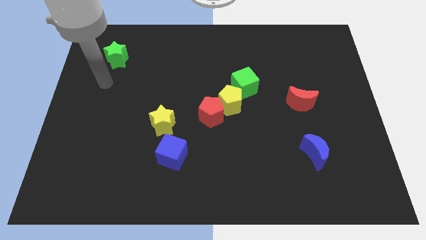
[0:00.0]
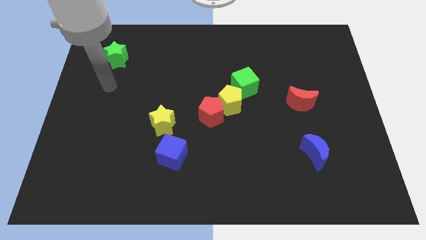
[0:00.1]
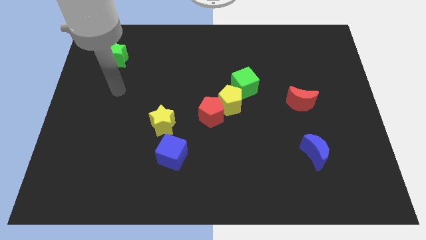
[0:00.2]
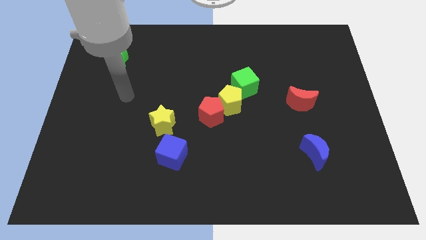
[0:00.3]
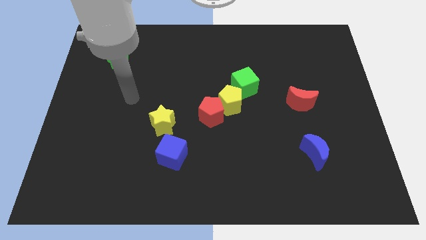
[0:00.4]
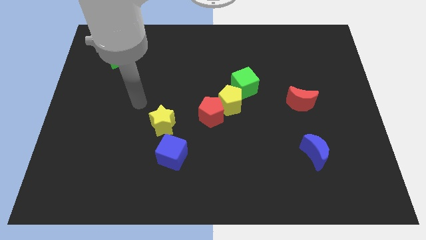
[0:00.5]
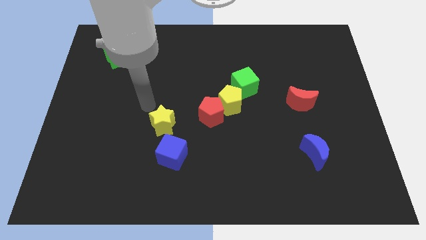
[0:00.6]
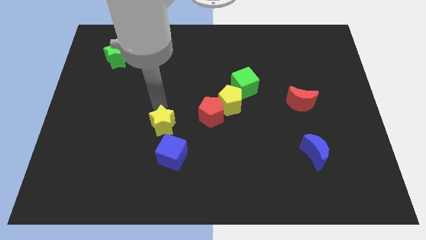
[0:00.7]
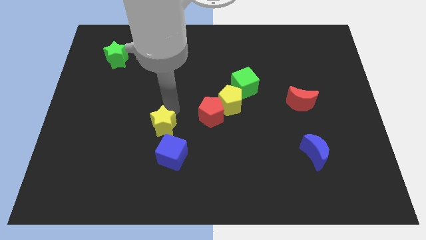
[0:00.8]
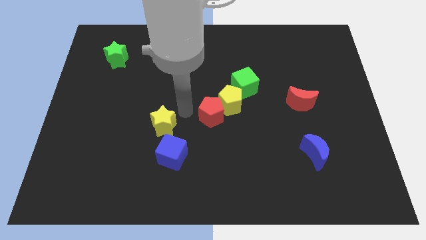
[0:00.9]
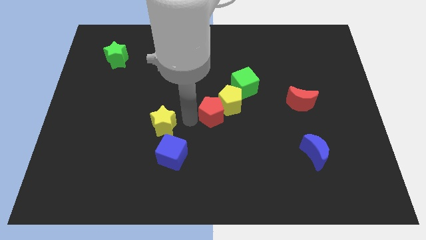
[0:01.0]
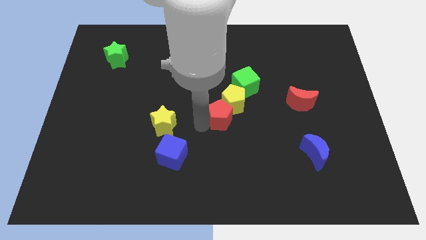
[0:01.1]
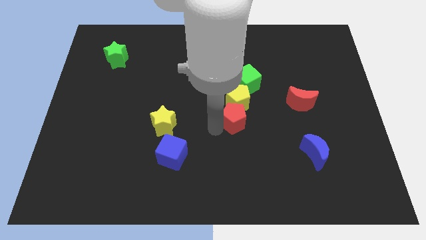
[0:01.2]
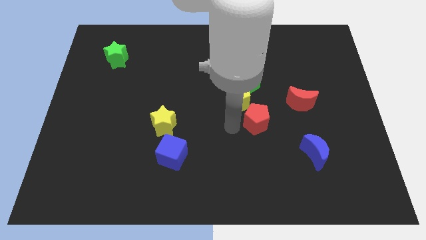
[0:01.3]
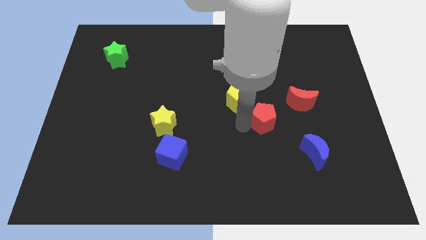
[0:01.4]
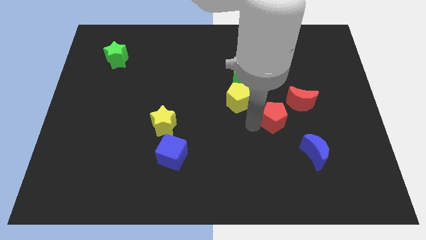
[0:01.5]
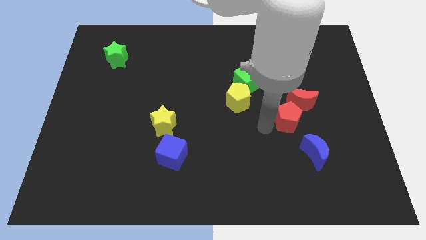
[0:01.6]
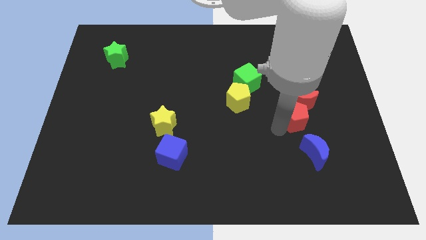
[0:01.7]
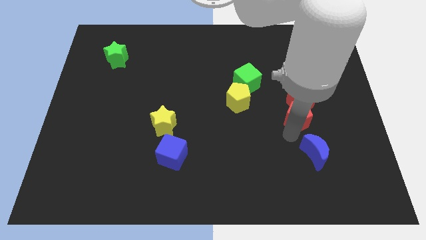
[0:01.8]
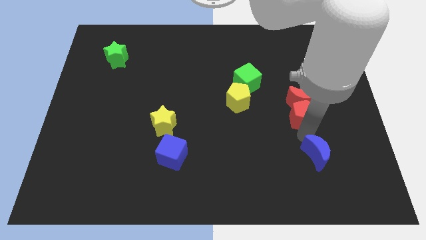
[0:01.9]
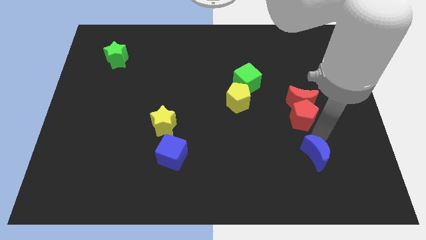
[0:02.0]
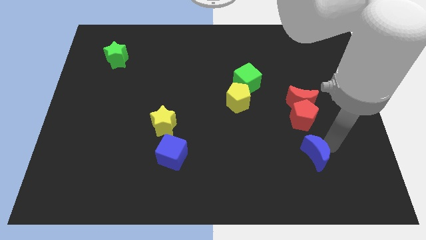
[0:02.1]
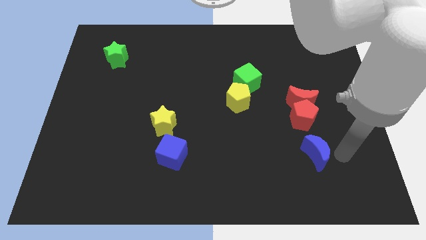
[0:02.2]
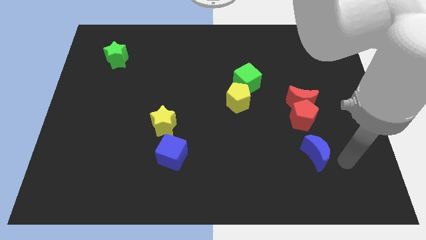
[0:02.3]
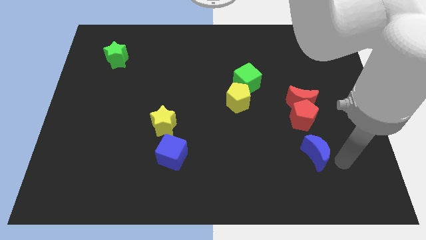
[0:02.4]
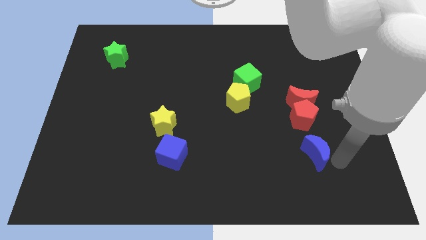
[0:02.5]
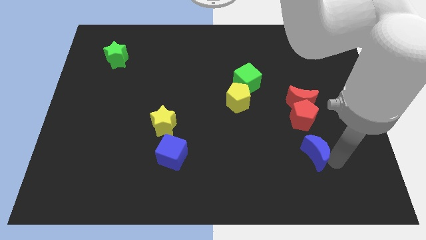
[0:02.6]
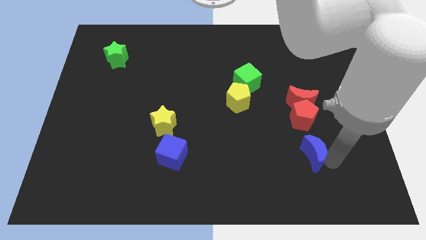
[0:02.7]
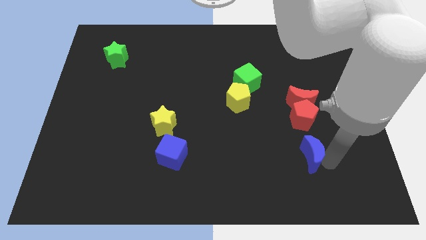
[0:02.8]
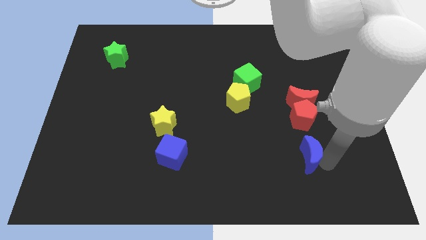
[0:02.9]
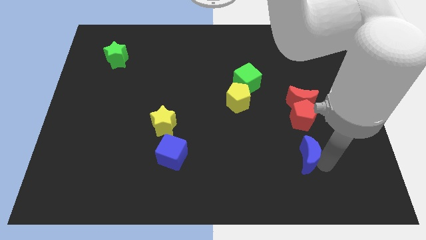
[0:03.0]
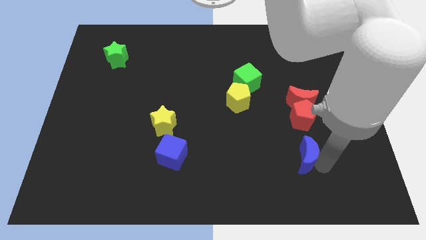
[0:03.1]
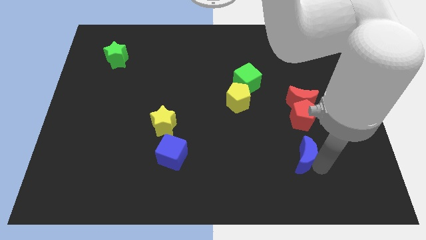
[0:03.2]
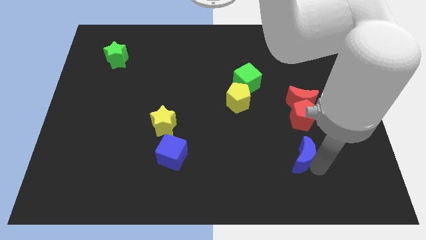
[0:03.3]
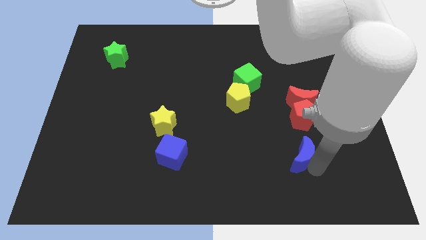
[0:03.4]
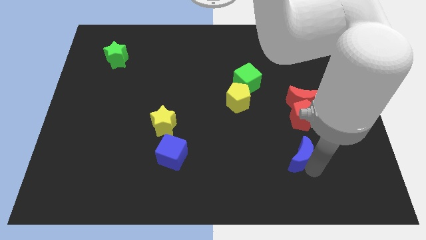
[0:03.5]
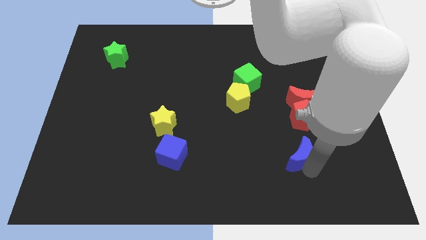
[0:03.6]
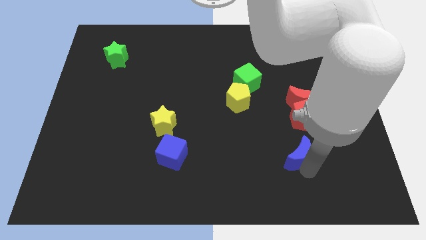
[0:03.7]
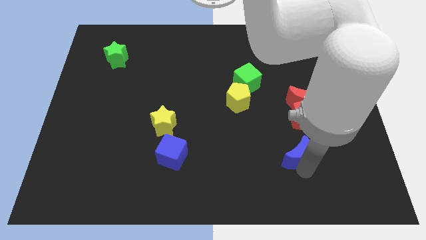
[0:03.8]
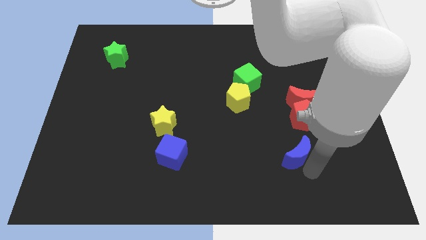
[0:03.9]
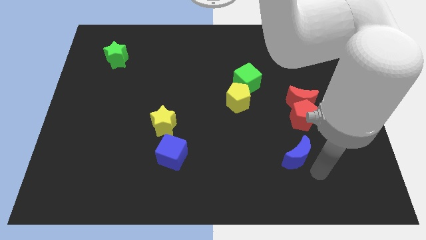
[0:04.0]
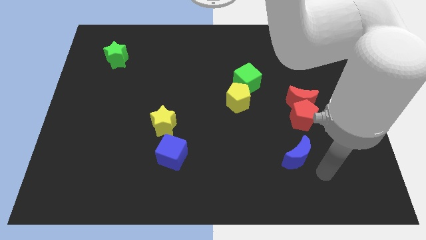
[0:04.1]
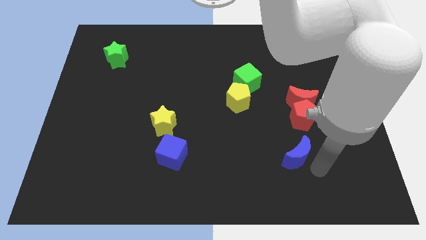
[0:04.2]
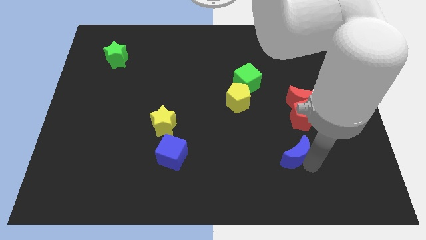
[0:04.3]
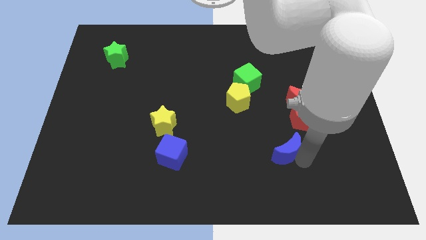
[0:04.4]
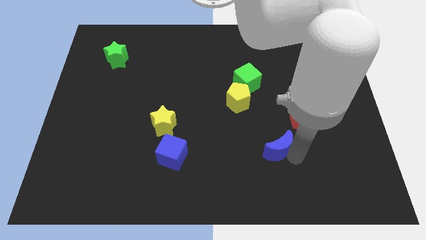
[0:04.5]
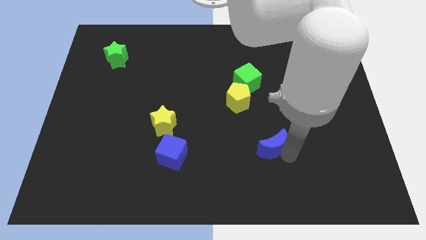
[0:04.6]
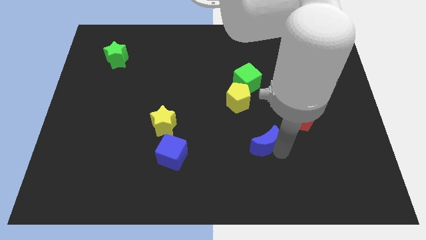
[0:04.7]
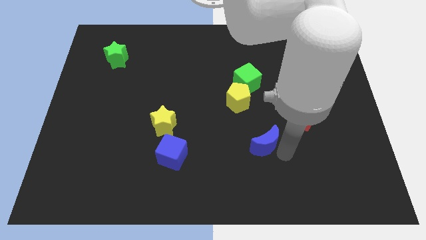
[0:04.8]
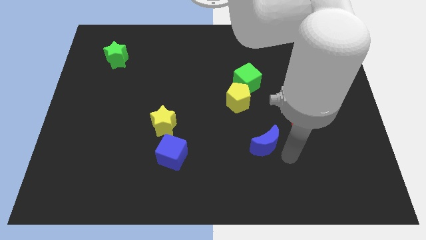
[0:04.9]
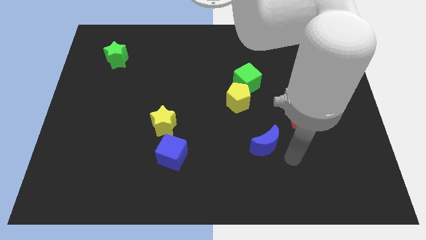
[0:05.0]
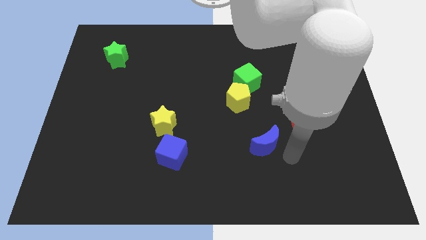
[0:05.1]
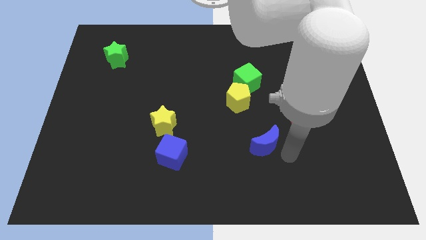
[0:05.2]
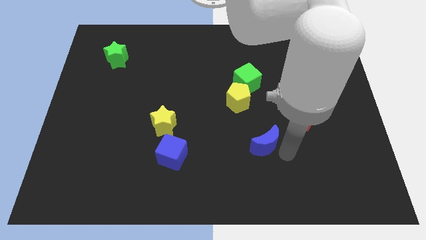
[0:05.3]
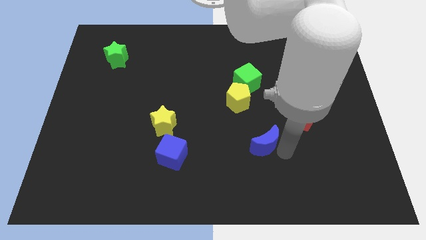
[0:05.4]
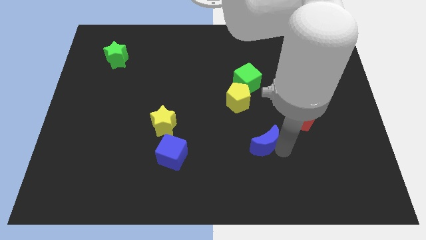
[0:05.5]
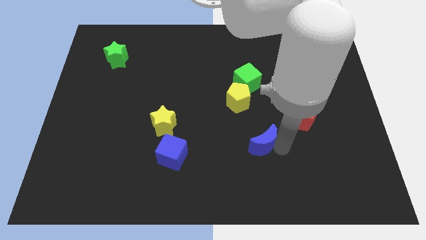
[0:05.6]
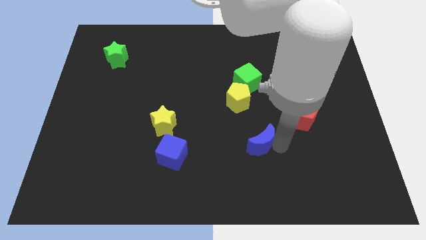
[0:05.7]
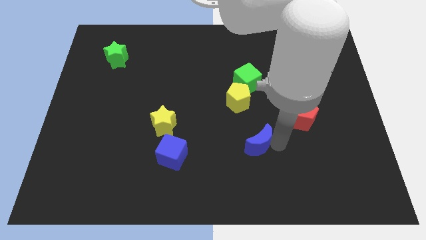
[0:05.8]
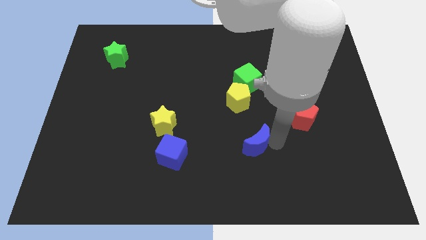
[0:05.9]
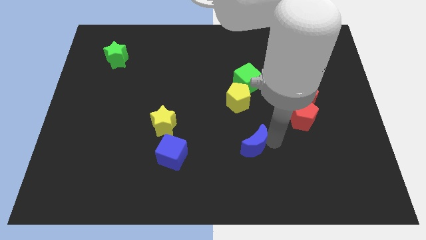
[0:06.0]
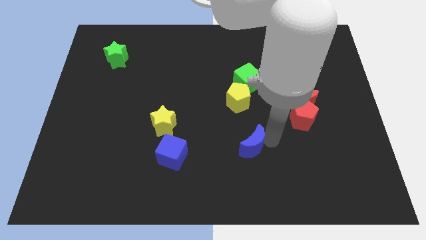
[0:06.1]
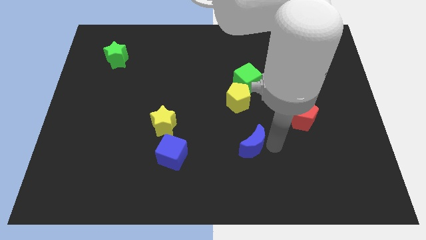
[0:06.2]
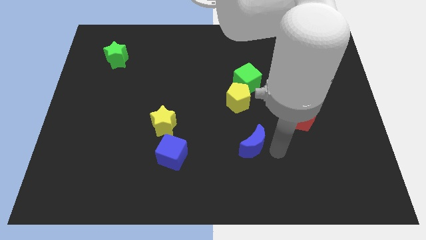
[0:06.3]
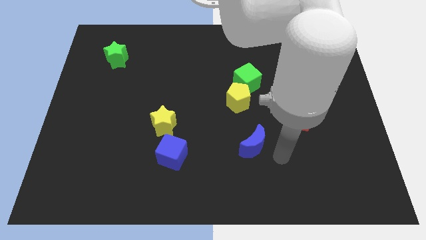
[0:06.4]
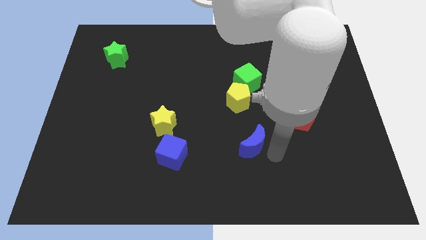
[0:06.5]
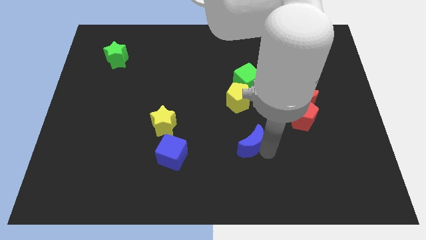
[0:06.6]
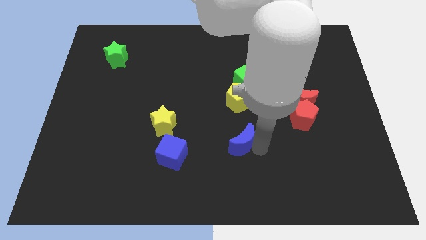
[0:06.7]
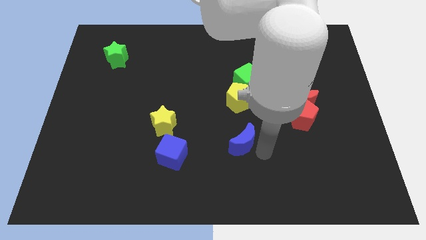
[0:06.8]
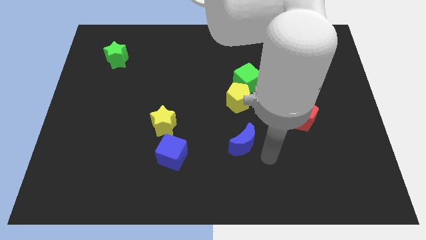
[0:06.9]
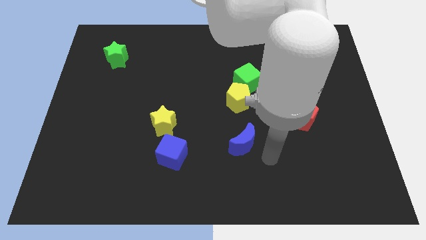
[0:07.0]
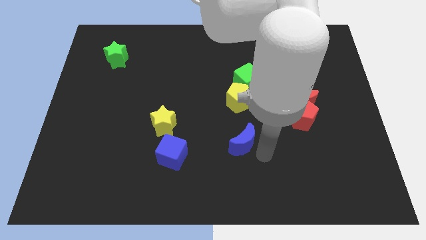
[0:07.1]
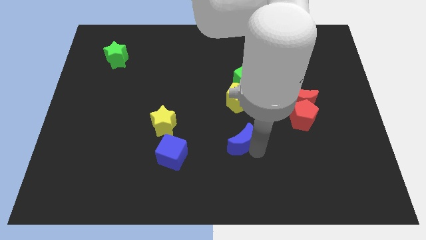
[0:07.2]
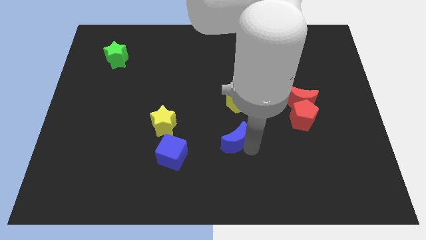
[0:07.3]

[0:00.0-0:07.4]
slide the blue moon to the center of the board
